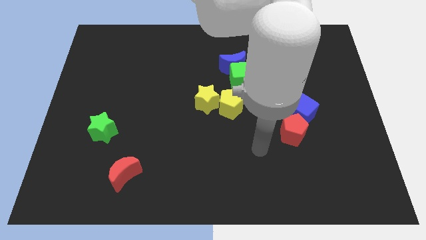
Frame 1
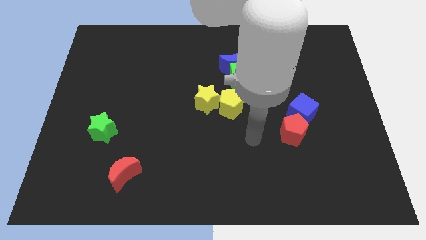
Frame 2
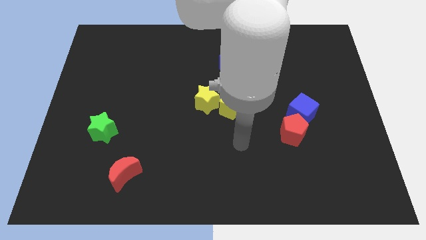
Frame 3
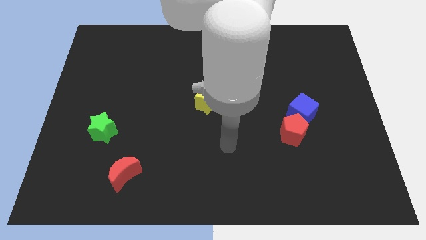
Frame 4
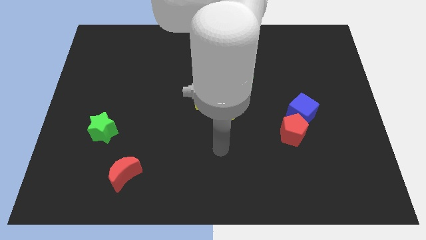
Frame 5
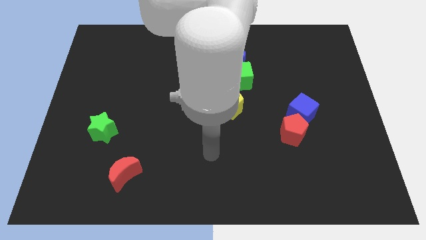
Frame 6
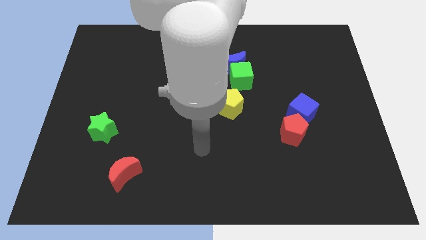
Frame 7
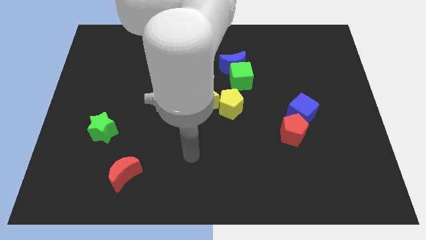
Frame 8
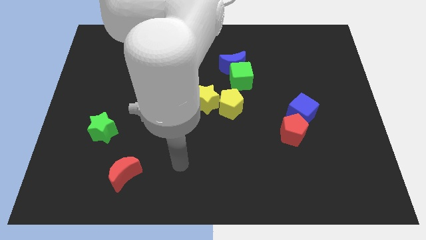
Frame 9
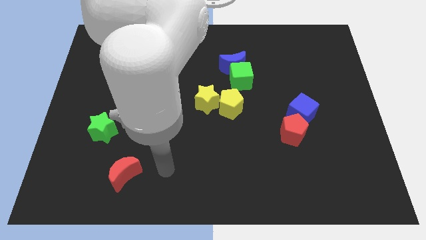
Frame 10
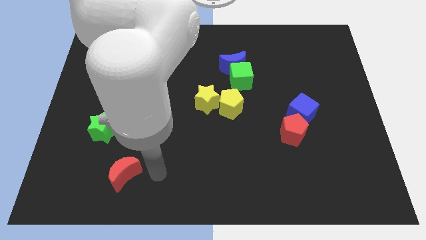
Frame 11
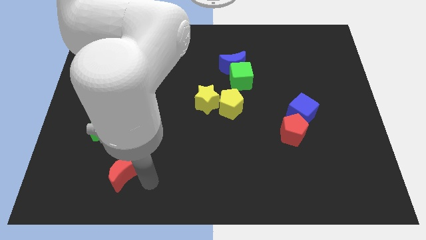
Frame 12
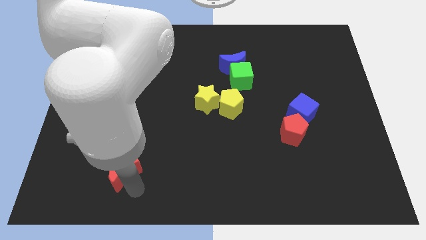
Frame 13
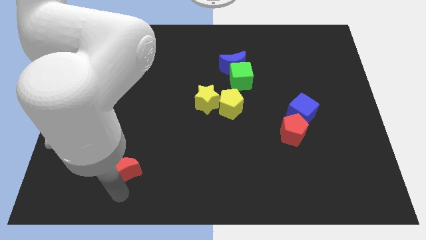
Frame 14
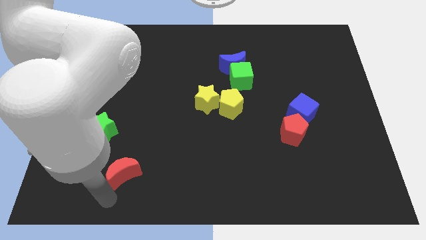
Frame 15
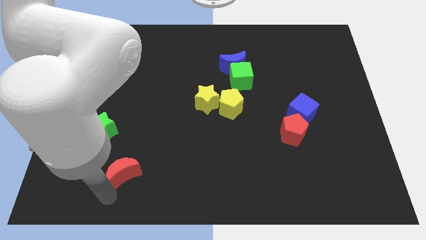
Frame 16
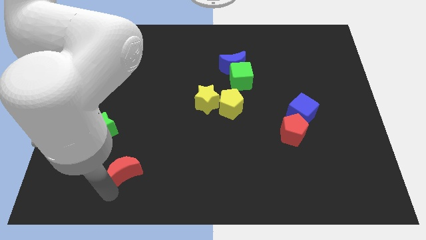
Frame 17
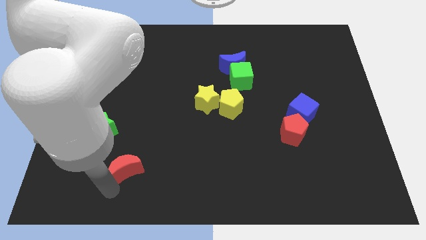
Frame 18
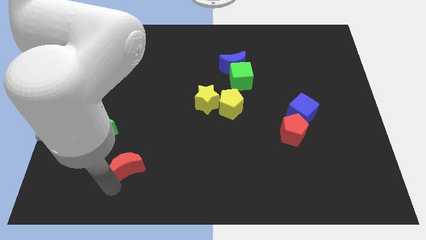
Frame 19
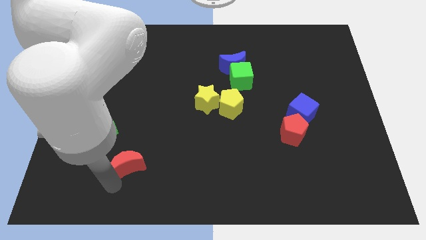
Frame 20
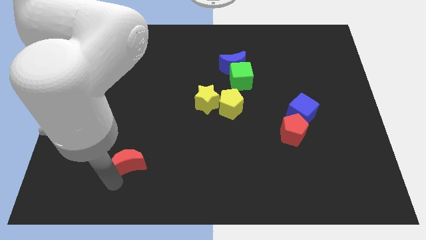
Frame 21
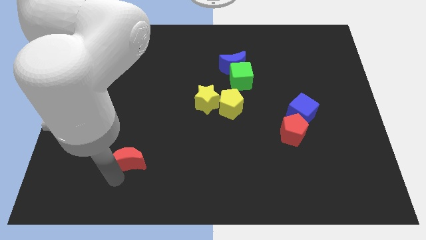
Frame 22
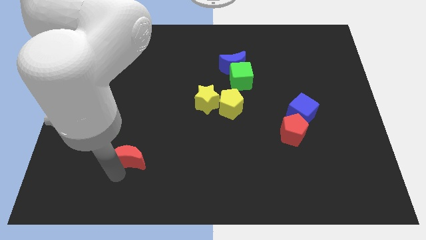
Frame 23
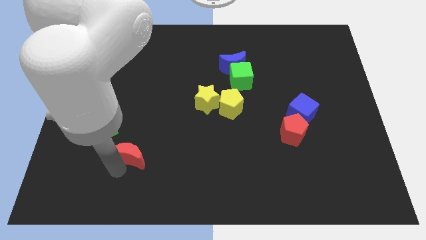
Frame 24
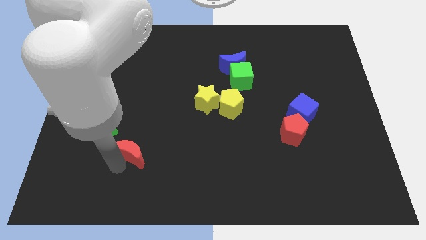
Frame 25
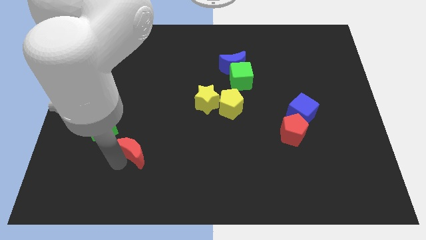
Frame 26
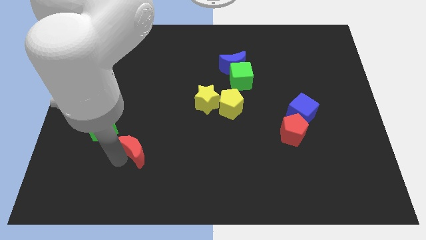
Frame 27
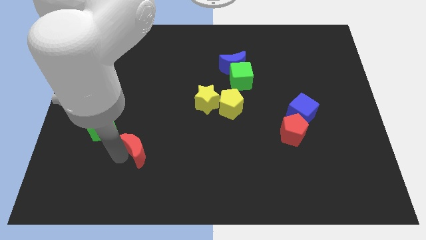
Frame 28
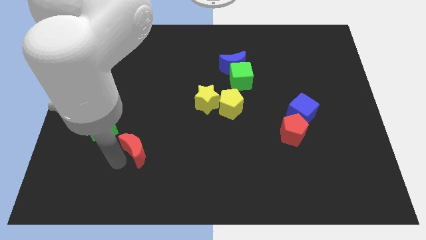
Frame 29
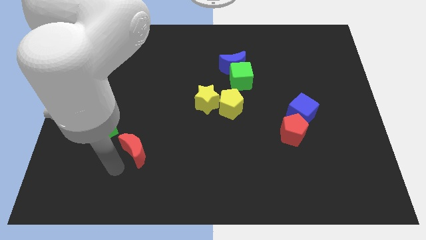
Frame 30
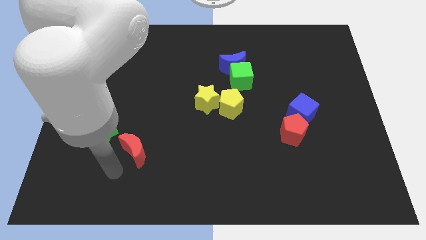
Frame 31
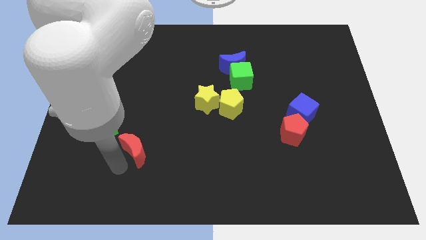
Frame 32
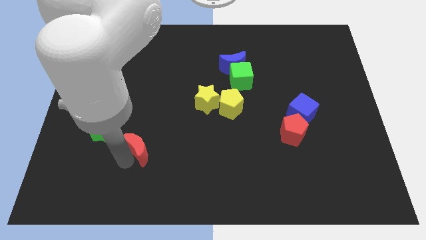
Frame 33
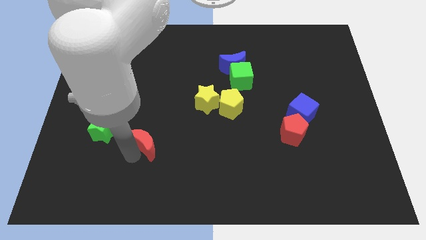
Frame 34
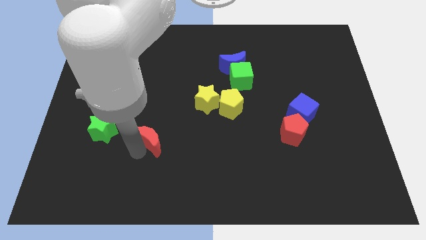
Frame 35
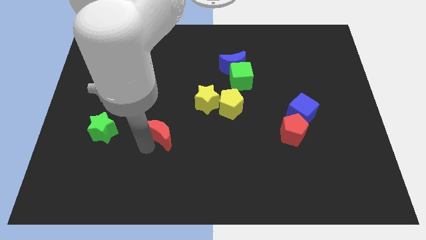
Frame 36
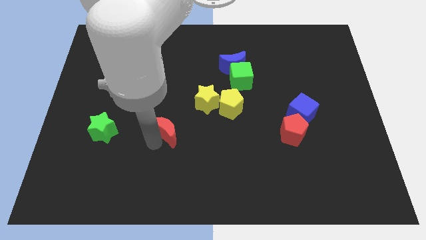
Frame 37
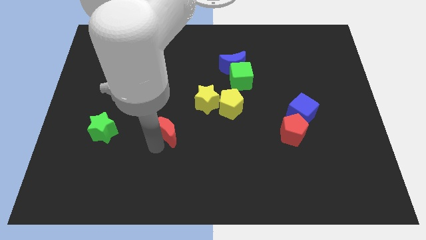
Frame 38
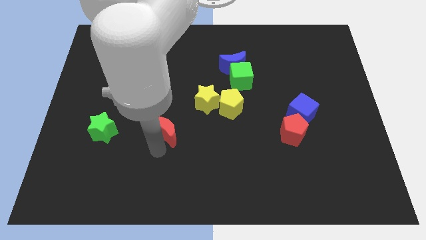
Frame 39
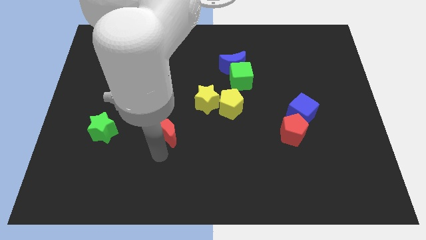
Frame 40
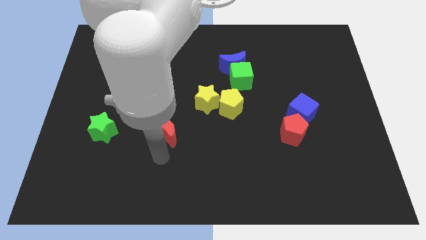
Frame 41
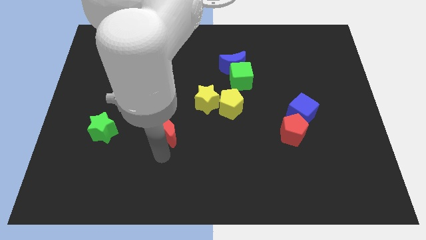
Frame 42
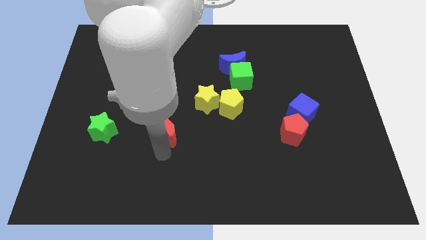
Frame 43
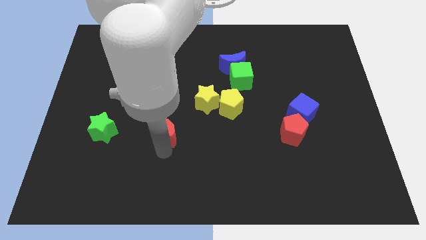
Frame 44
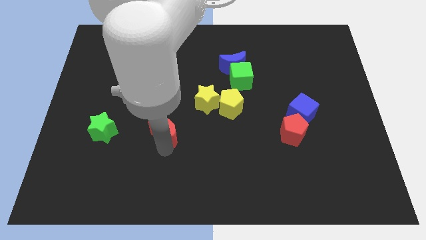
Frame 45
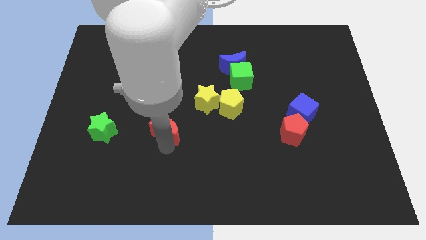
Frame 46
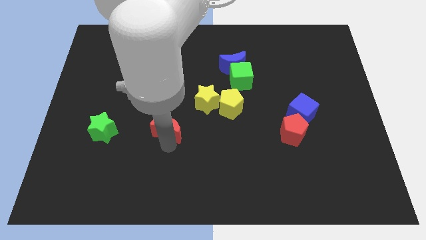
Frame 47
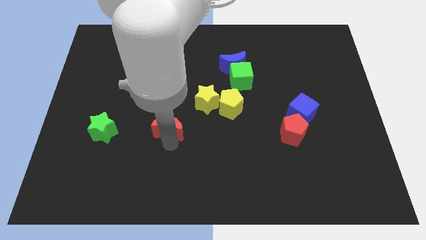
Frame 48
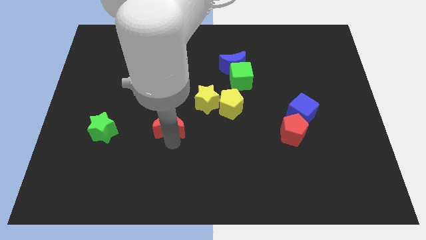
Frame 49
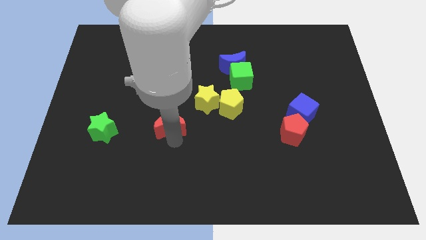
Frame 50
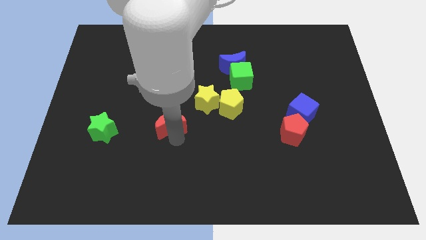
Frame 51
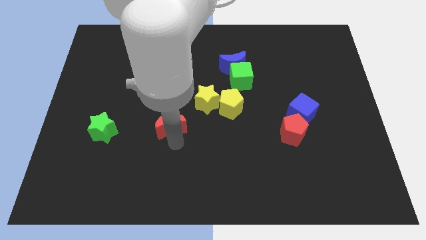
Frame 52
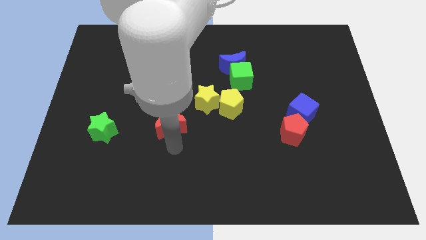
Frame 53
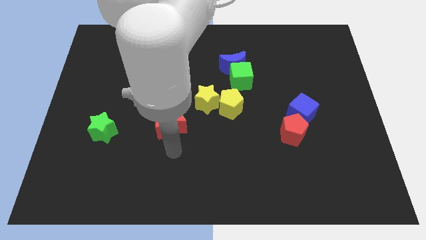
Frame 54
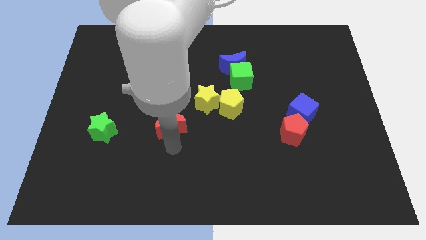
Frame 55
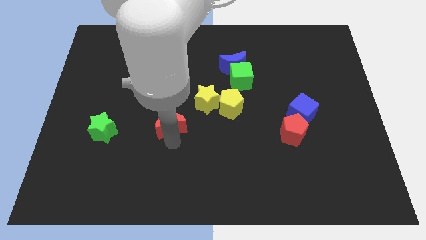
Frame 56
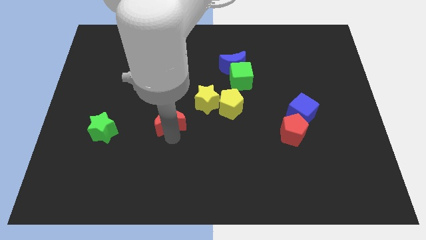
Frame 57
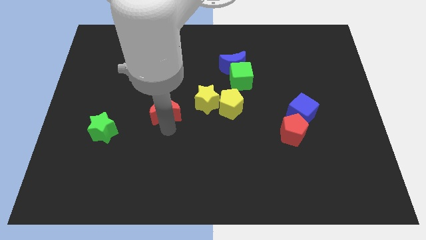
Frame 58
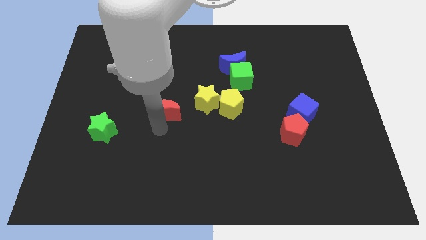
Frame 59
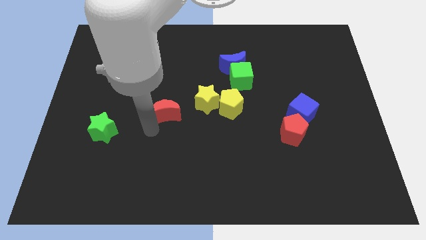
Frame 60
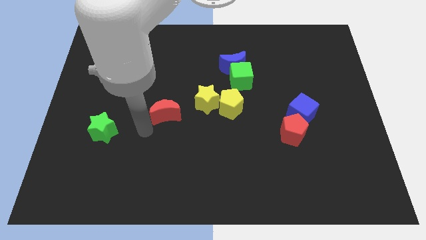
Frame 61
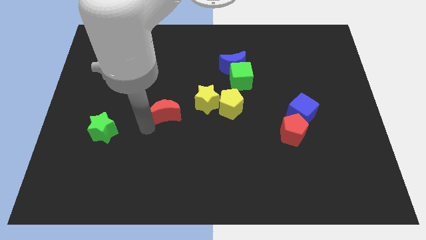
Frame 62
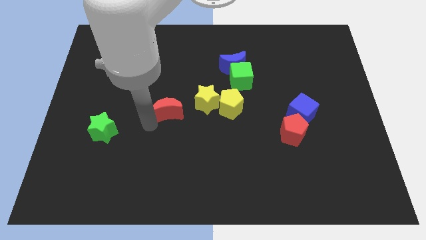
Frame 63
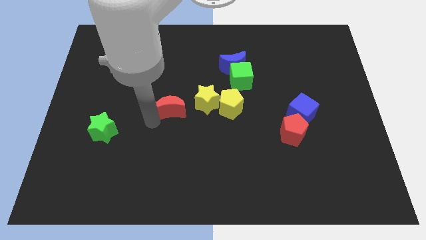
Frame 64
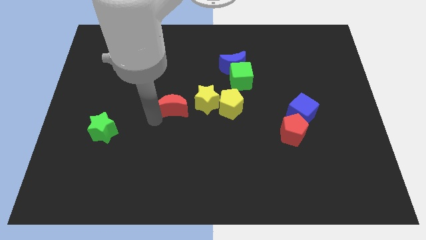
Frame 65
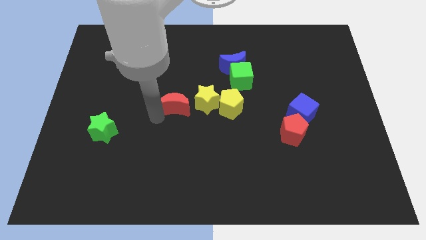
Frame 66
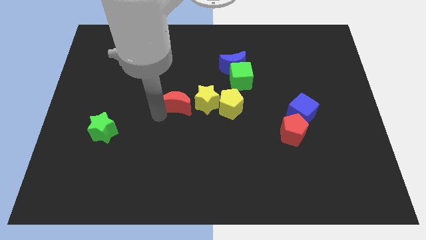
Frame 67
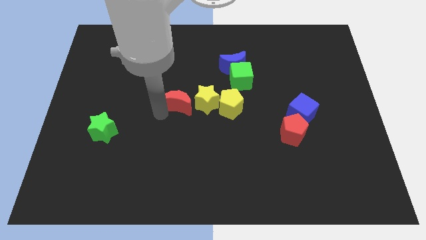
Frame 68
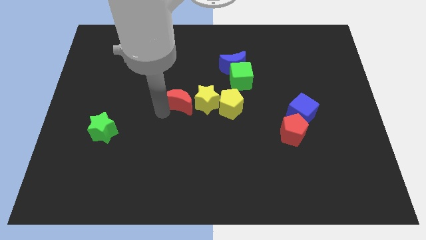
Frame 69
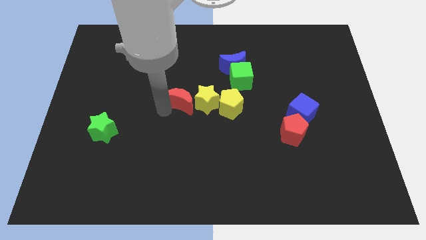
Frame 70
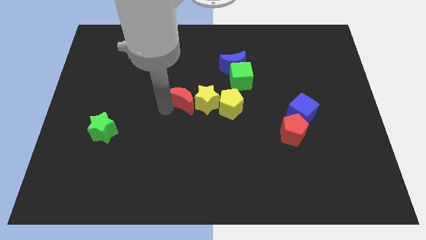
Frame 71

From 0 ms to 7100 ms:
slide the red moon up and right

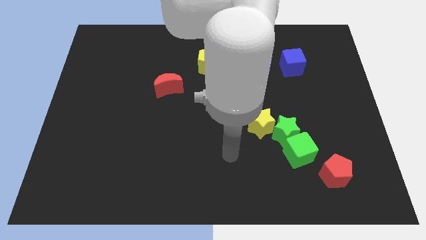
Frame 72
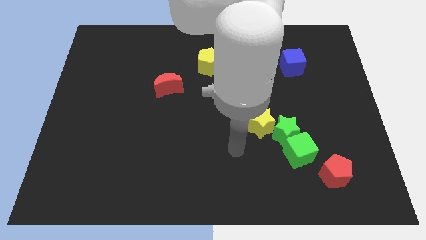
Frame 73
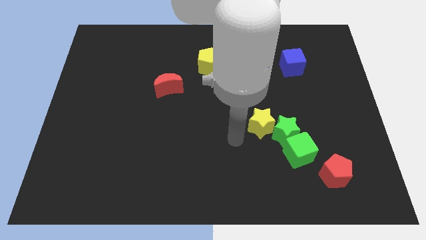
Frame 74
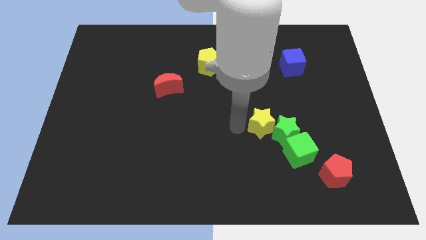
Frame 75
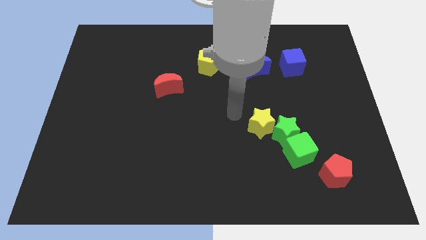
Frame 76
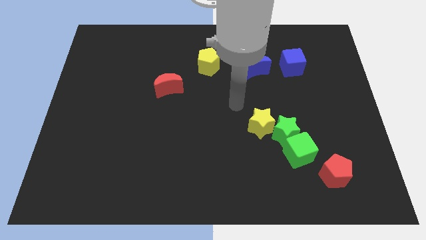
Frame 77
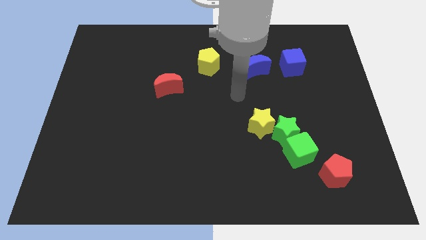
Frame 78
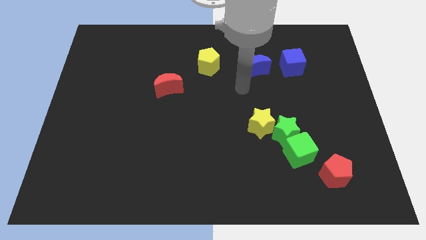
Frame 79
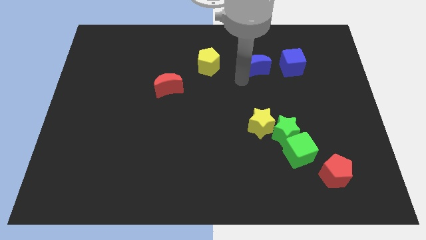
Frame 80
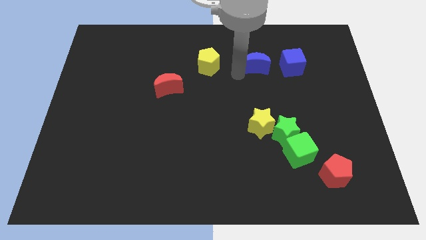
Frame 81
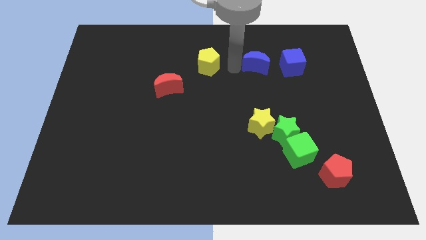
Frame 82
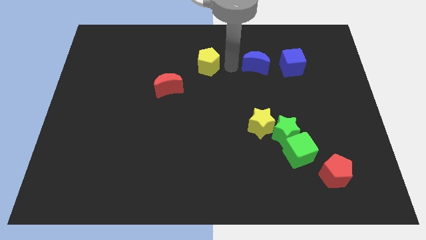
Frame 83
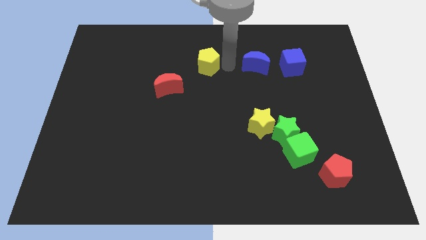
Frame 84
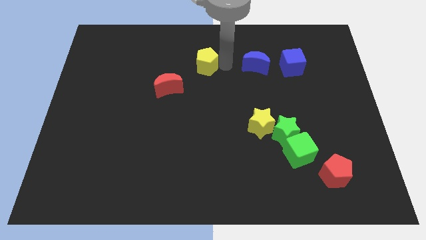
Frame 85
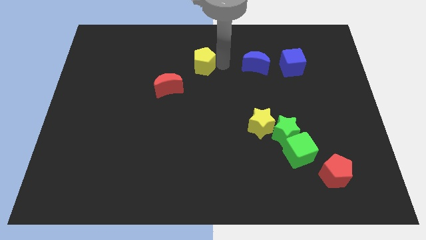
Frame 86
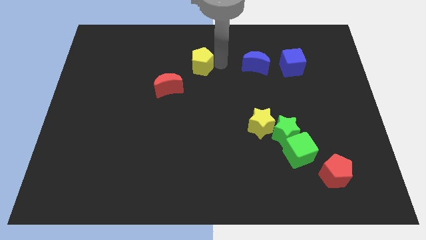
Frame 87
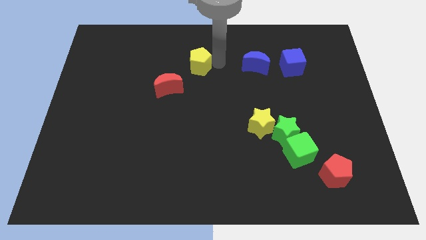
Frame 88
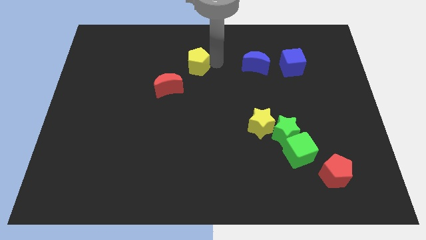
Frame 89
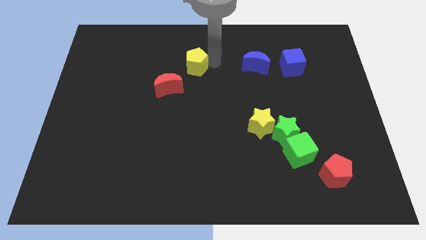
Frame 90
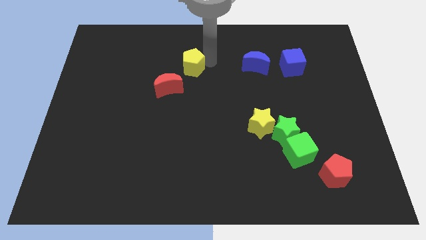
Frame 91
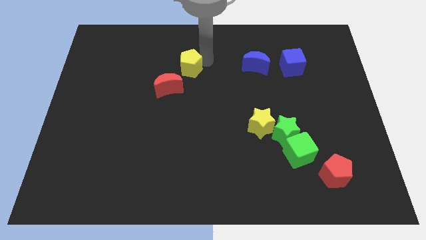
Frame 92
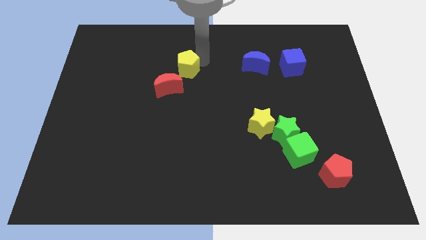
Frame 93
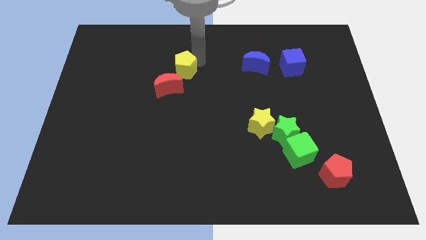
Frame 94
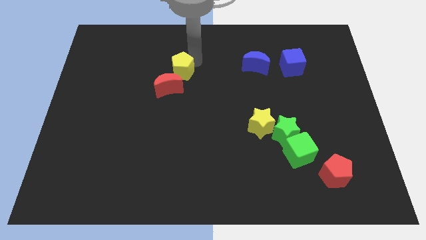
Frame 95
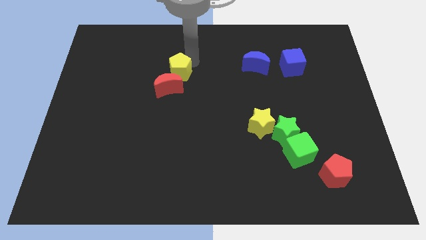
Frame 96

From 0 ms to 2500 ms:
push the yellow pentagon left a little
